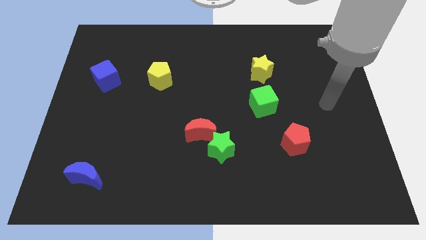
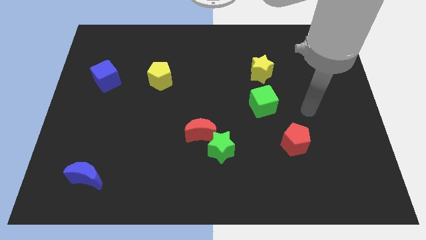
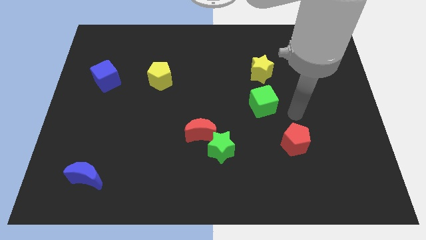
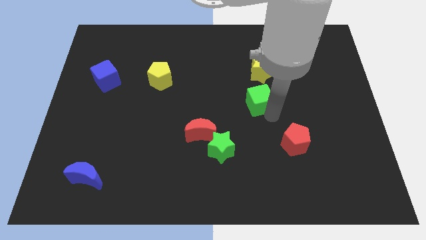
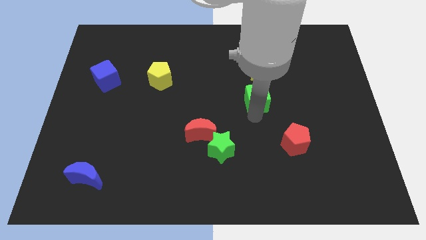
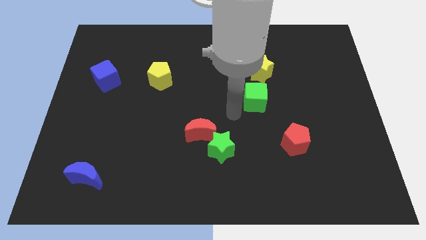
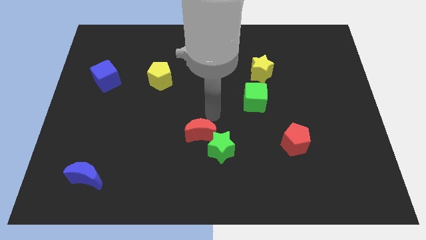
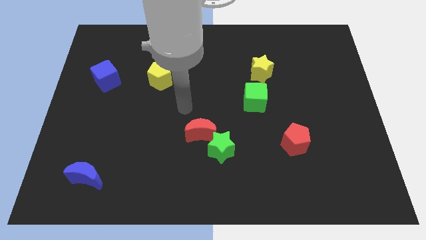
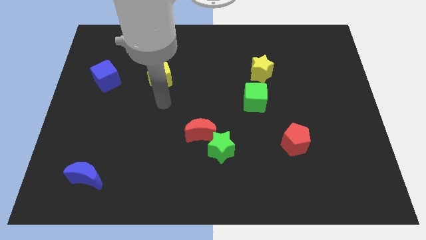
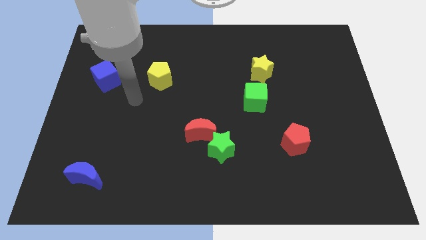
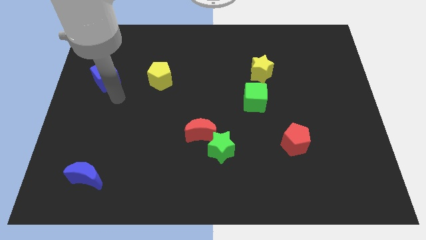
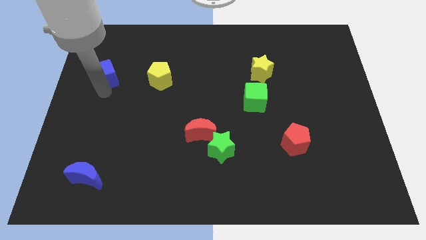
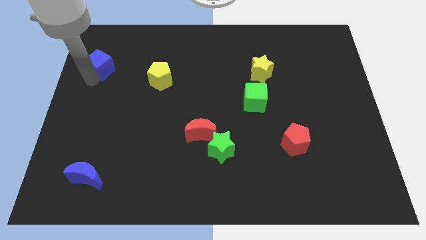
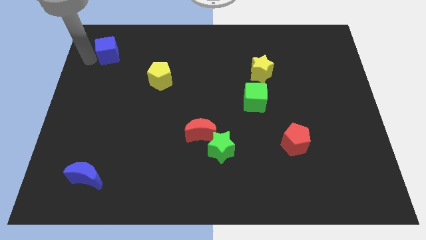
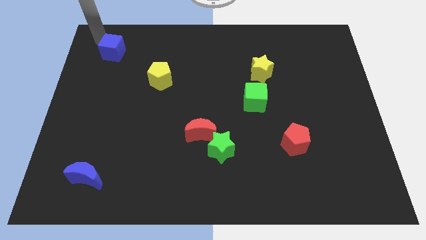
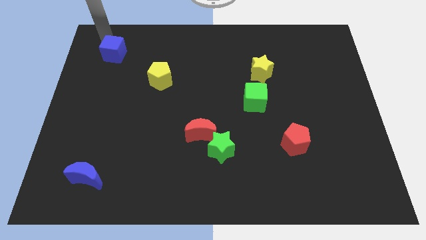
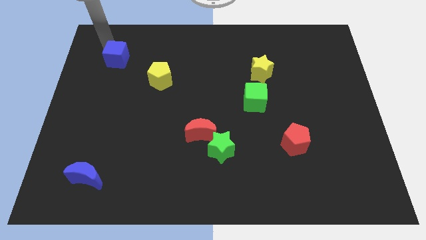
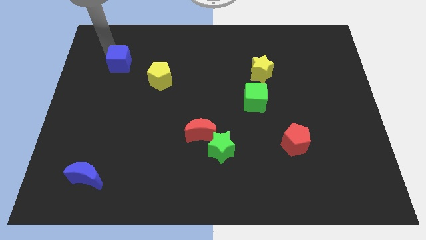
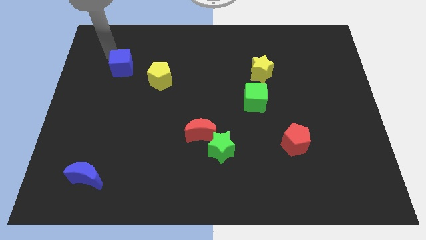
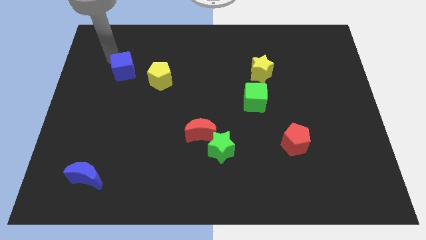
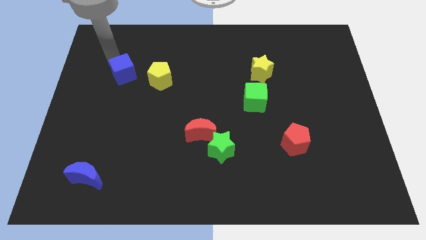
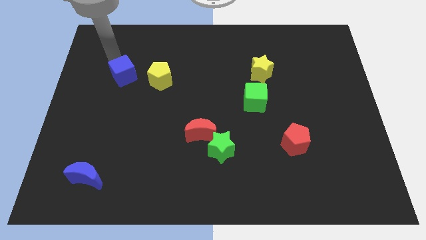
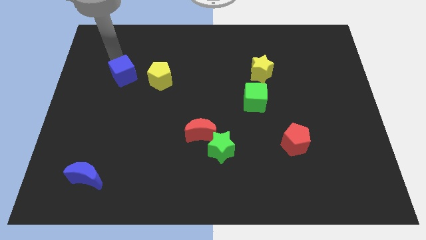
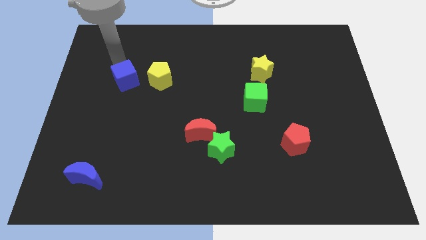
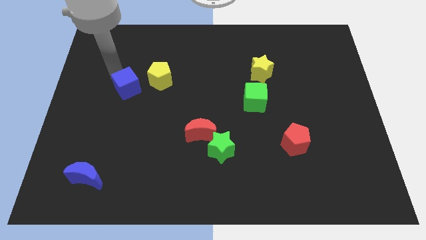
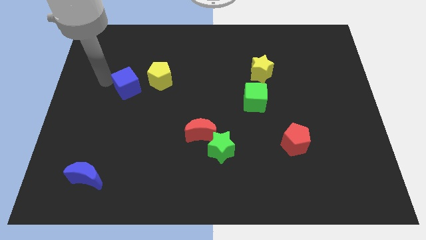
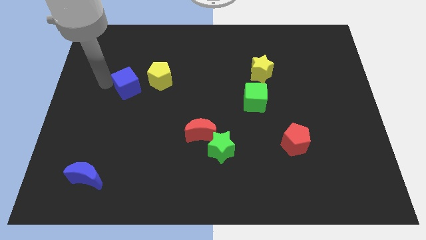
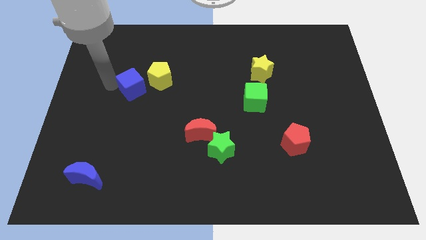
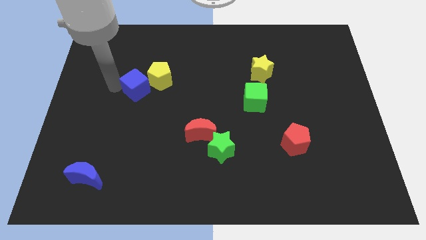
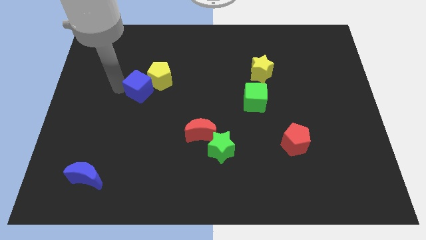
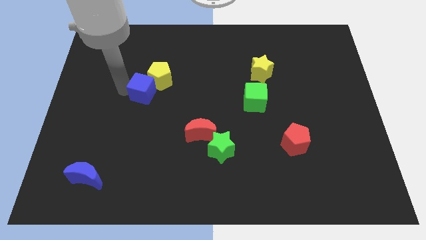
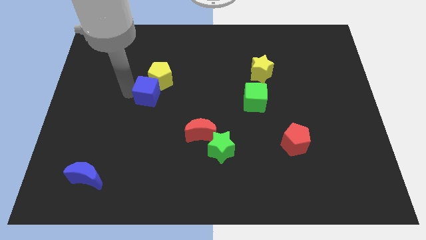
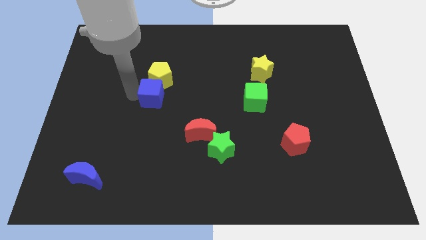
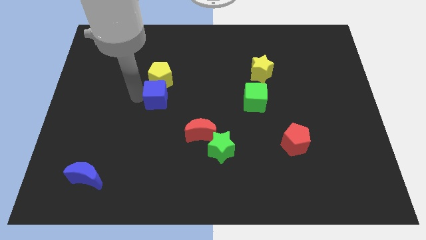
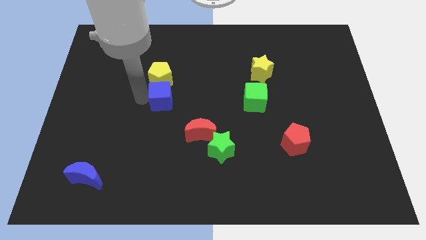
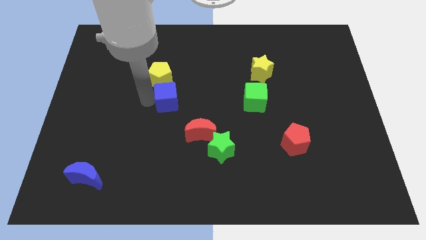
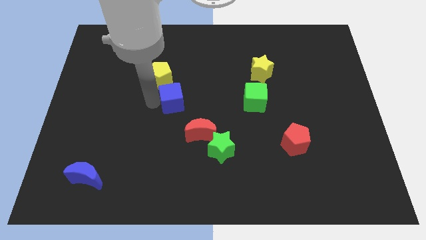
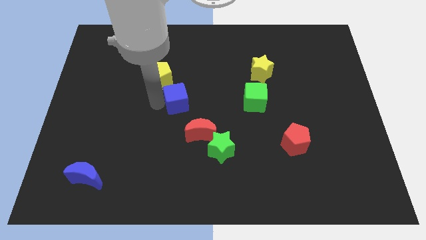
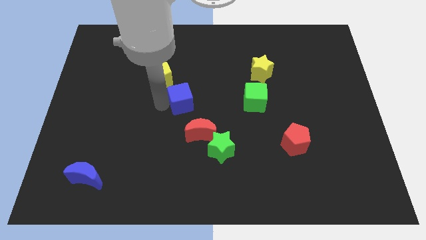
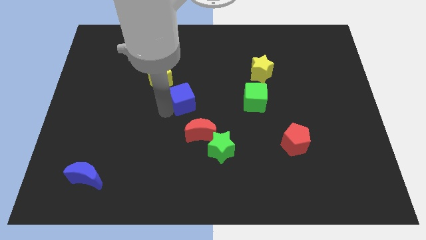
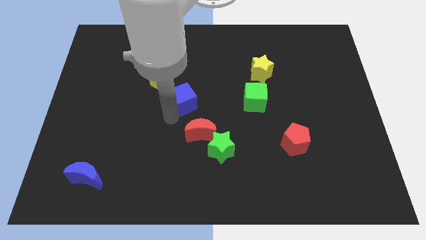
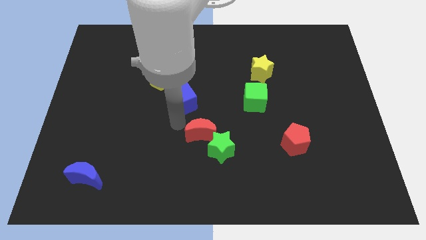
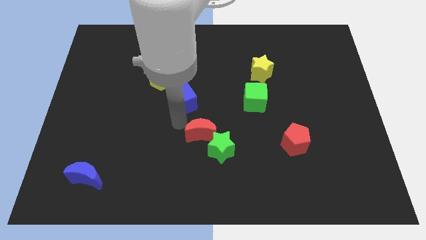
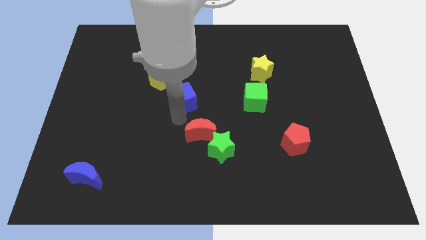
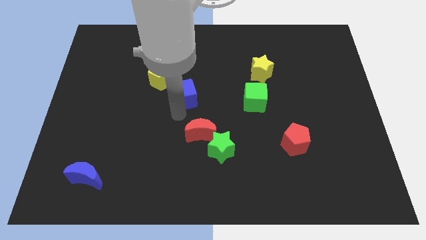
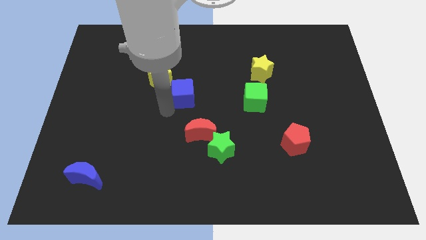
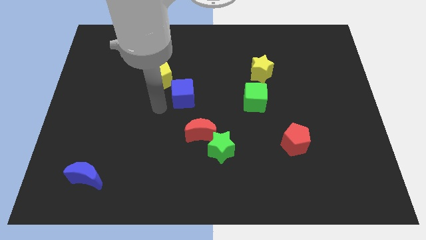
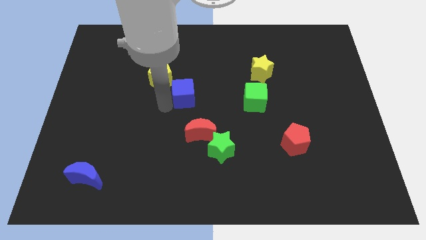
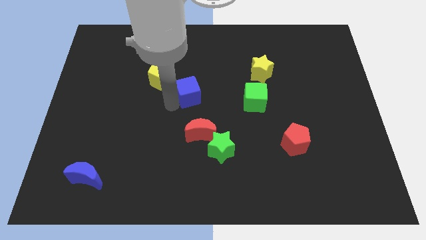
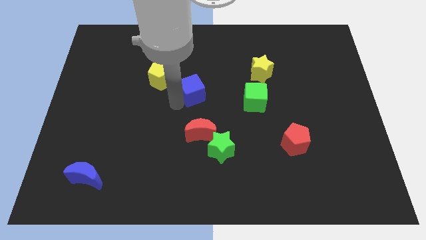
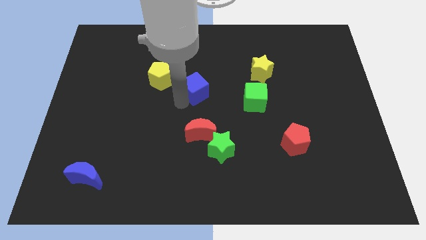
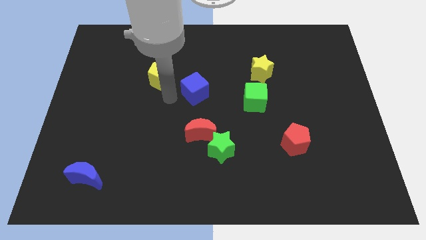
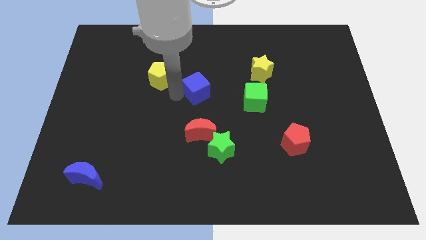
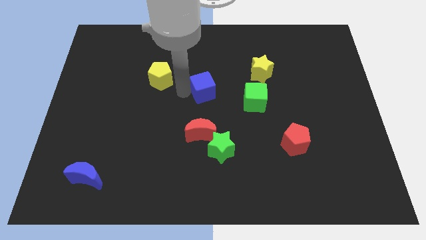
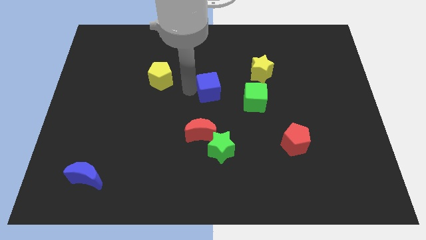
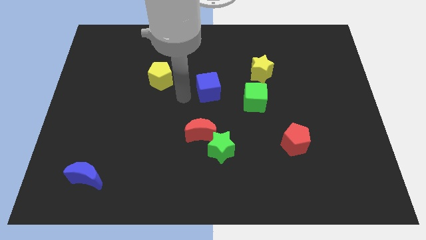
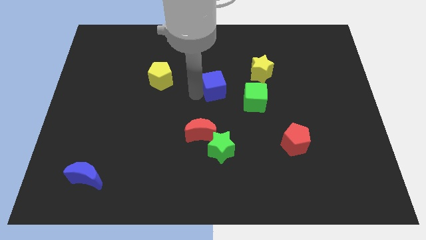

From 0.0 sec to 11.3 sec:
push the blue cube to the top left of the green cube

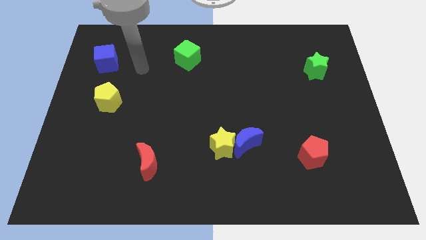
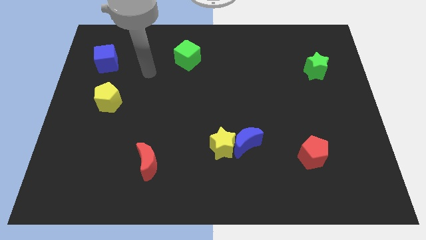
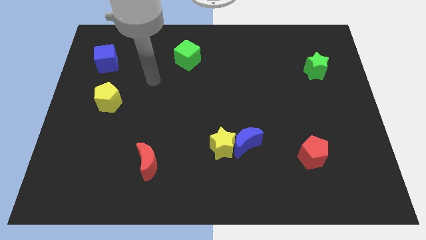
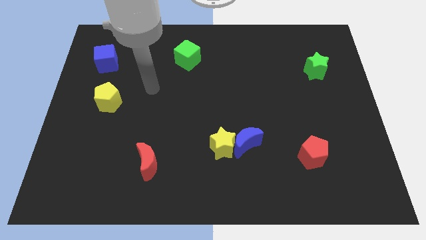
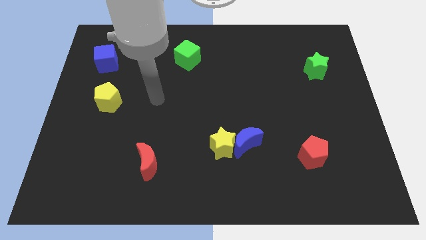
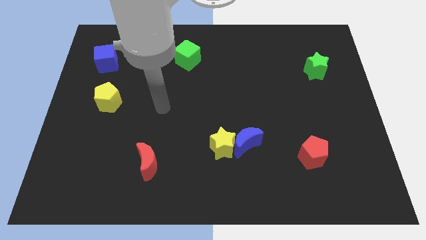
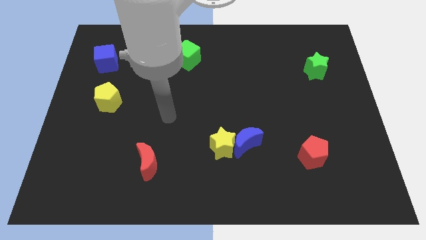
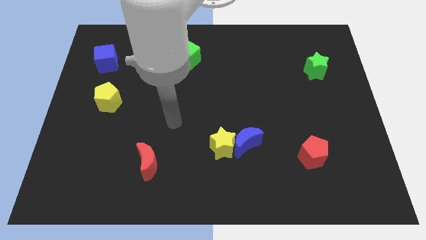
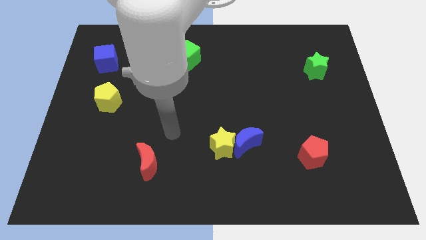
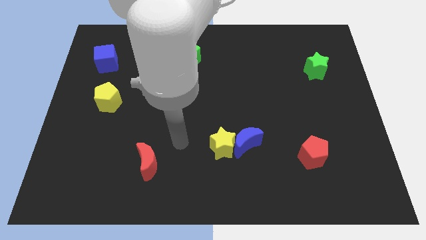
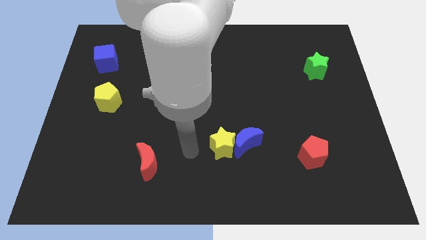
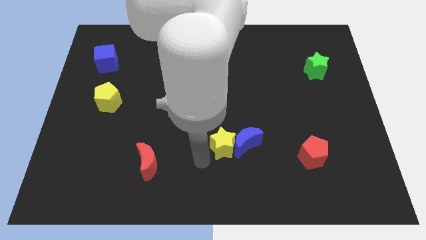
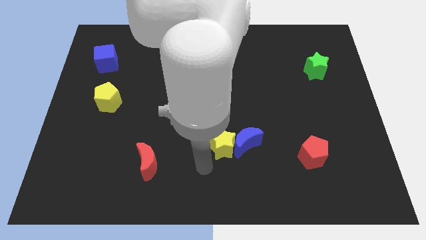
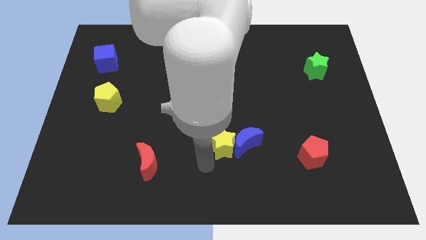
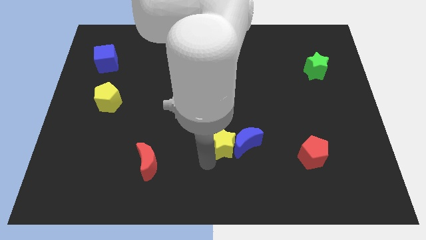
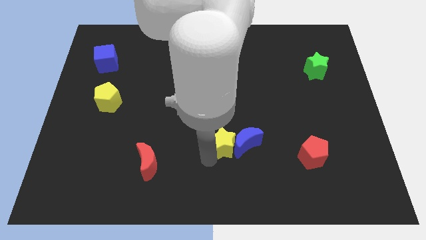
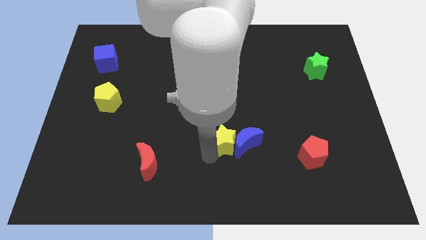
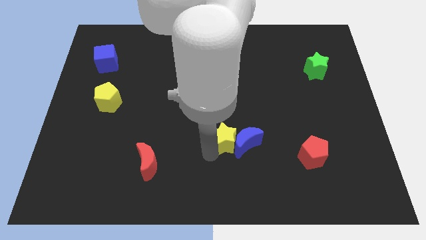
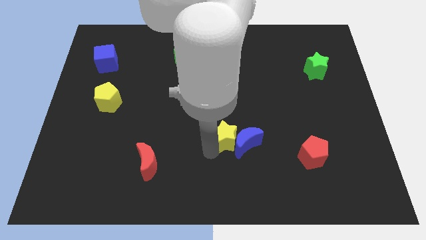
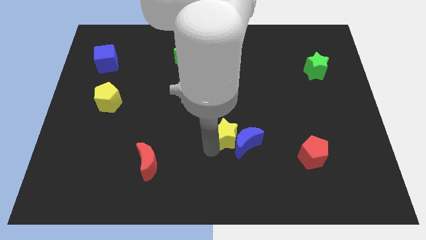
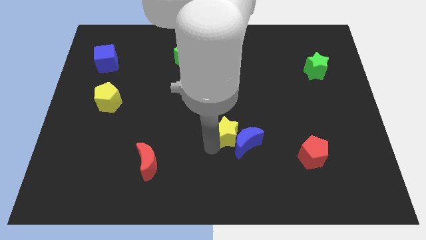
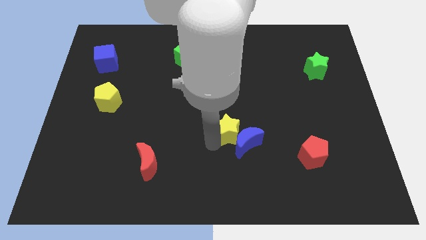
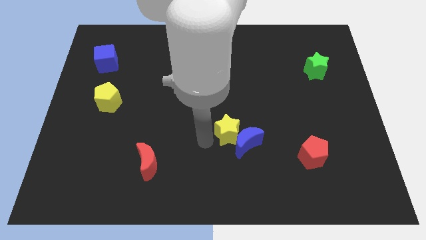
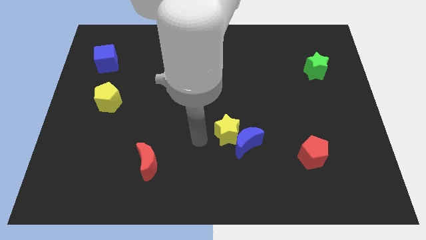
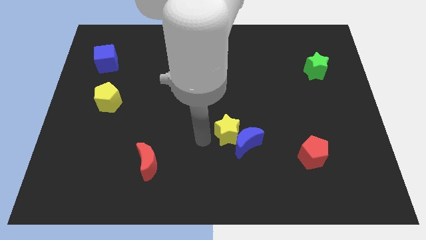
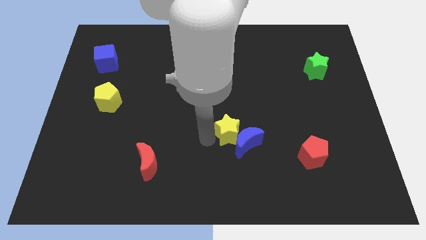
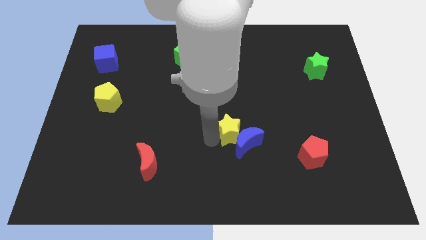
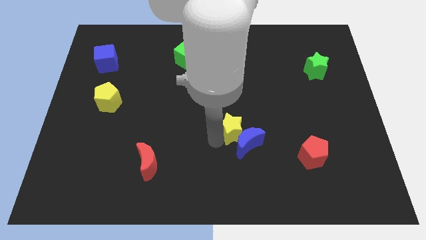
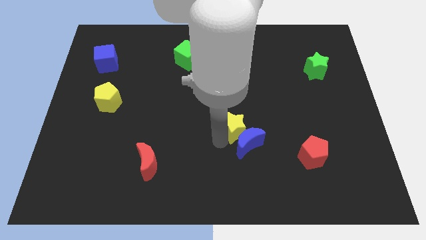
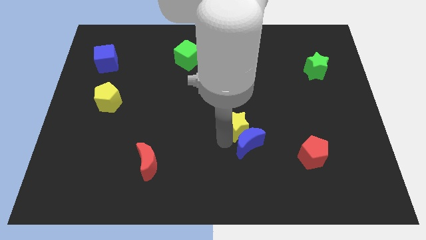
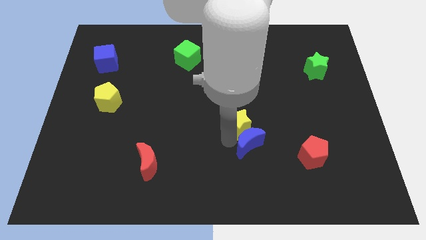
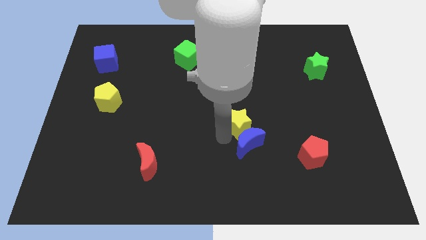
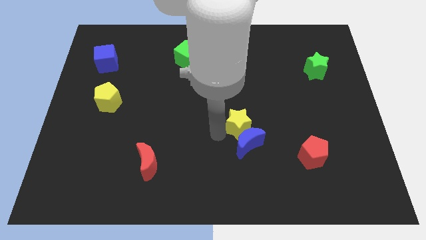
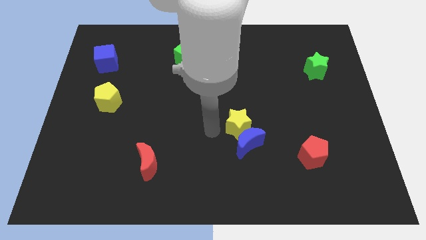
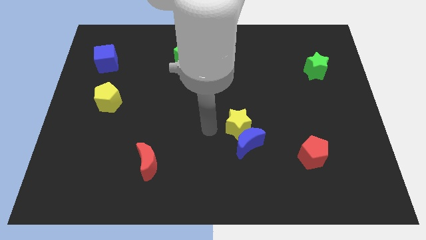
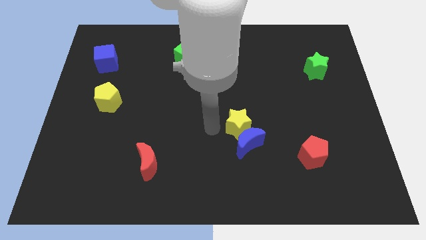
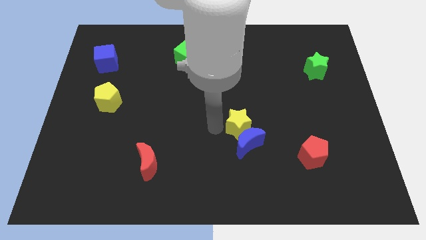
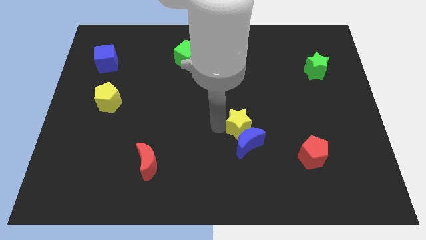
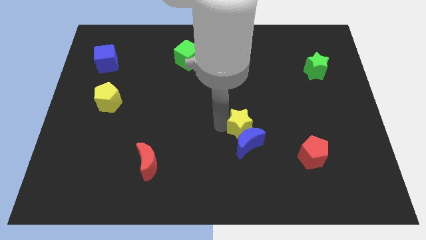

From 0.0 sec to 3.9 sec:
move the yellow star diagonally up and to the right of the blue moon
